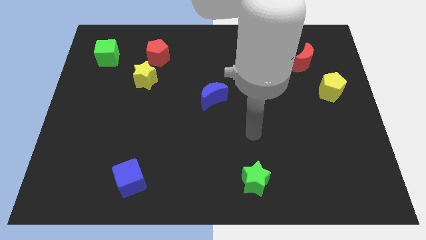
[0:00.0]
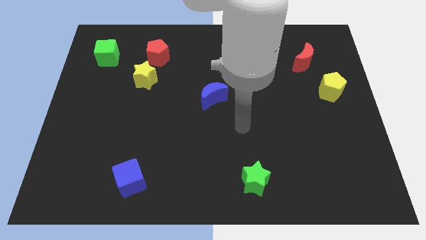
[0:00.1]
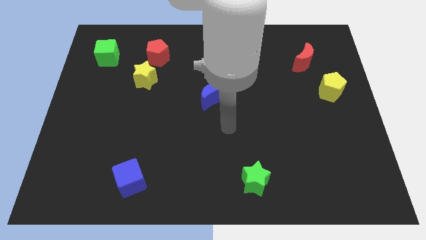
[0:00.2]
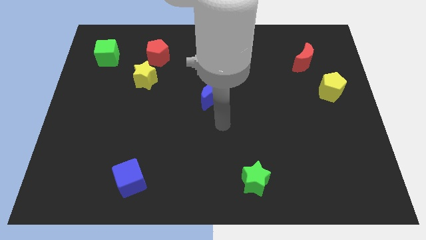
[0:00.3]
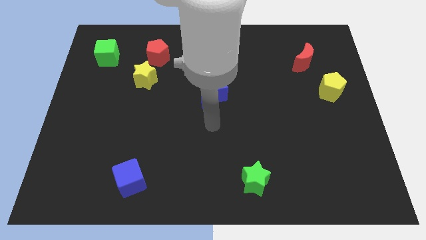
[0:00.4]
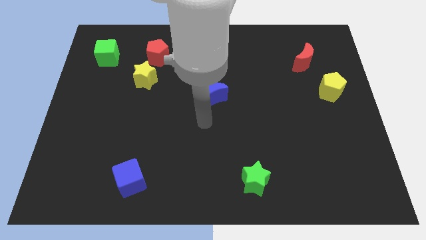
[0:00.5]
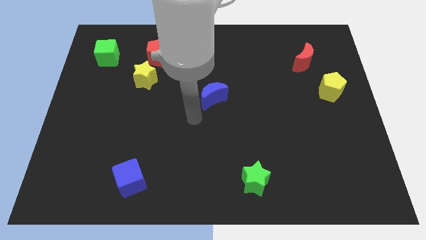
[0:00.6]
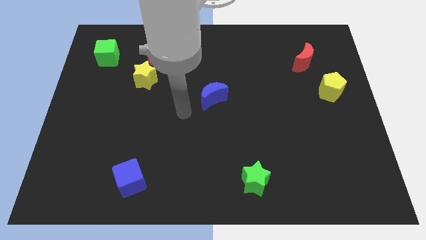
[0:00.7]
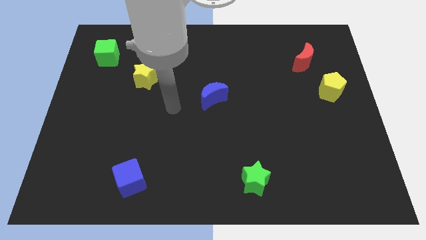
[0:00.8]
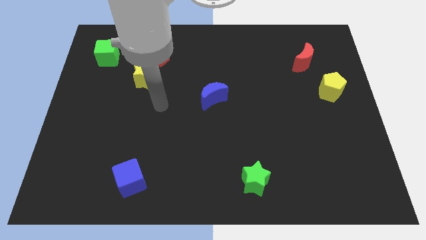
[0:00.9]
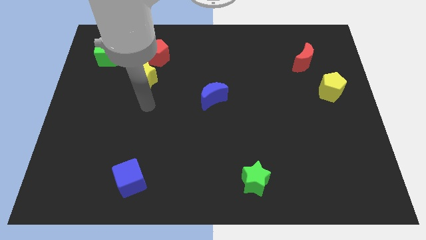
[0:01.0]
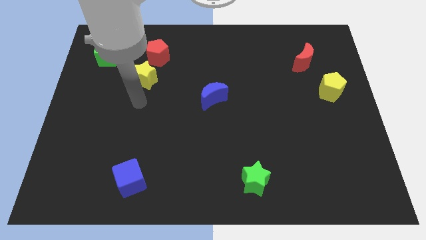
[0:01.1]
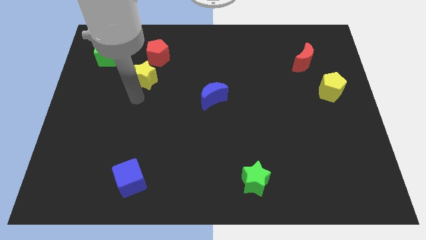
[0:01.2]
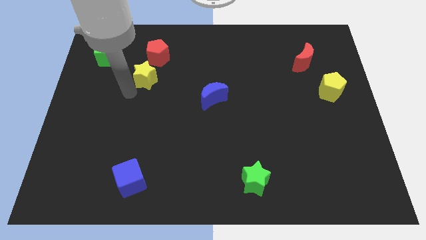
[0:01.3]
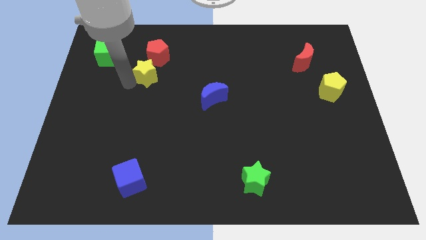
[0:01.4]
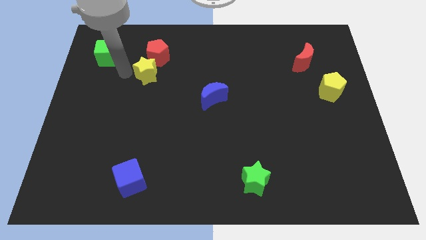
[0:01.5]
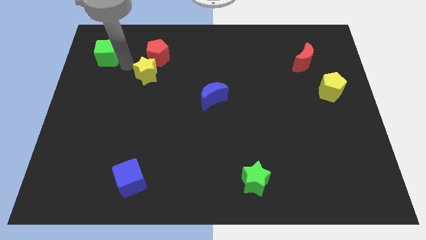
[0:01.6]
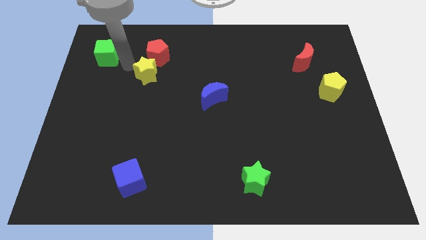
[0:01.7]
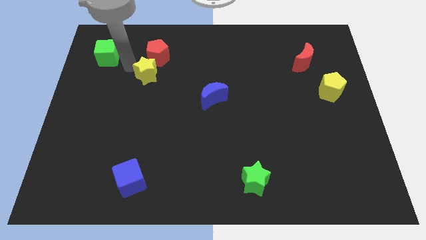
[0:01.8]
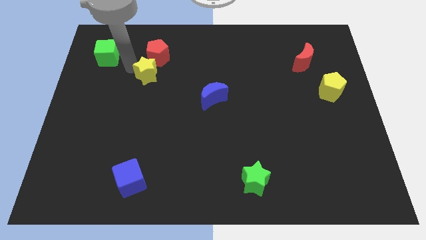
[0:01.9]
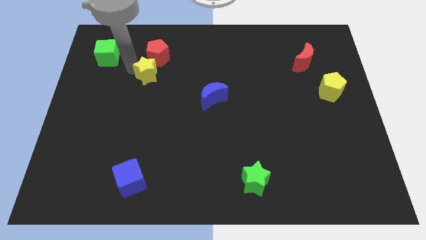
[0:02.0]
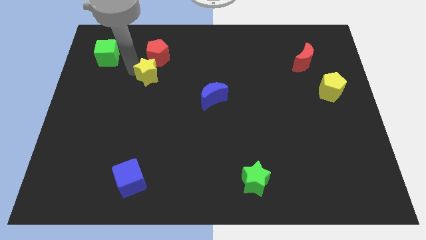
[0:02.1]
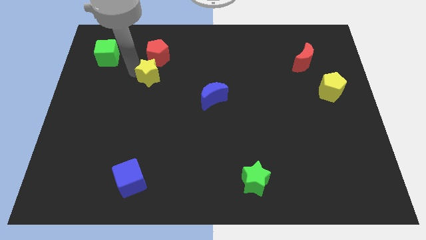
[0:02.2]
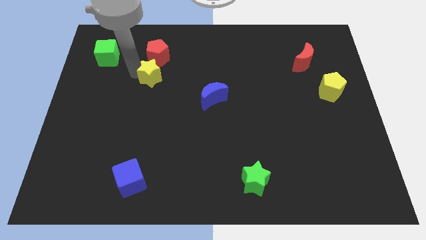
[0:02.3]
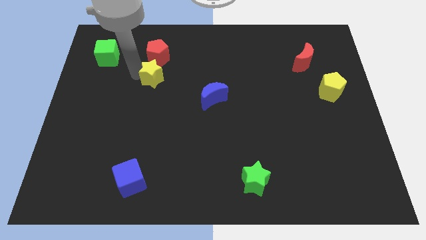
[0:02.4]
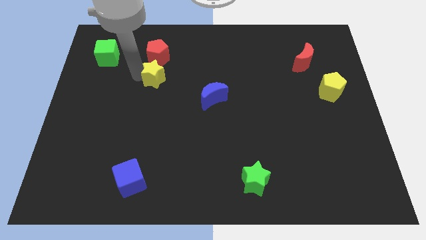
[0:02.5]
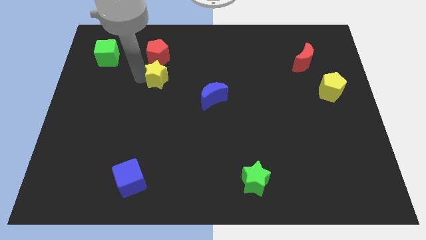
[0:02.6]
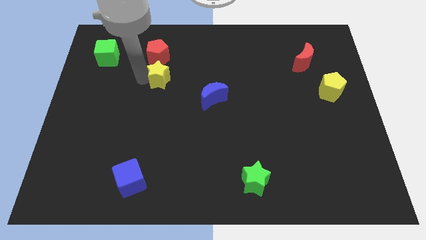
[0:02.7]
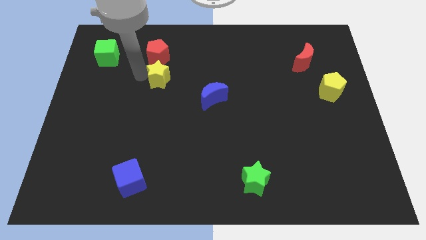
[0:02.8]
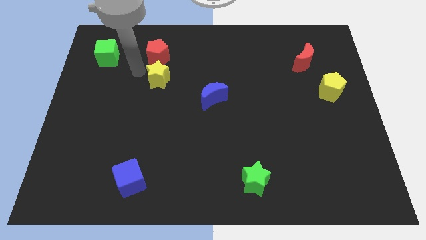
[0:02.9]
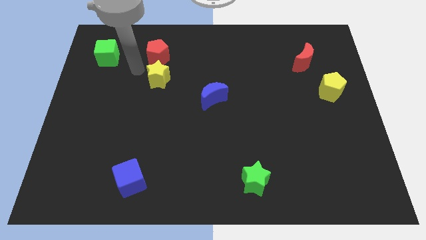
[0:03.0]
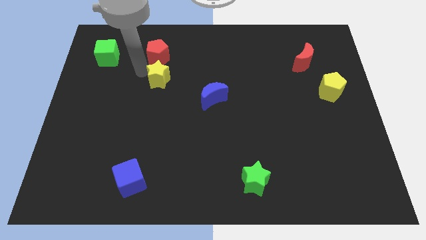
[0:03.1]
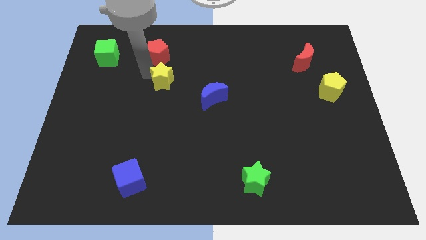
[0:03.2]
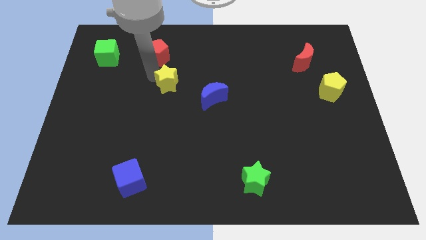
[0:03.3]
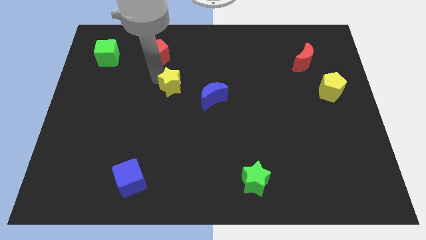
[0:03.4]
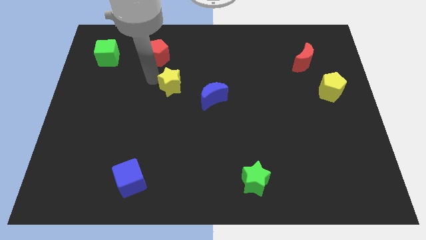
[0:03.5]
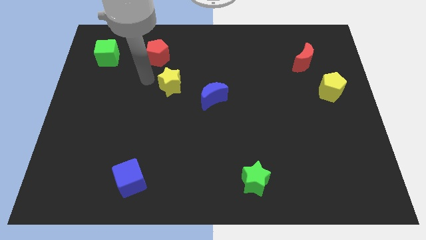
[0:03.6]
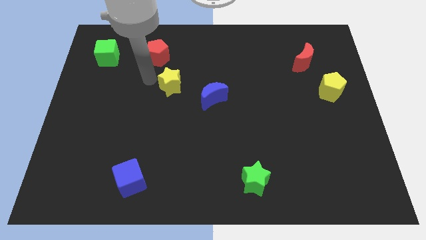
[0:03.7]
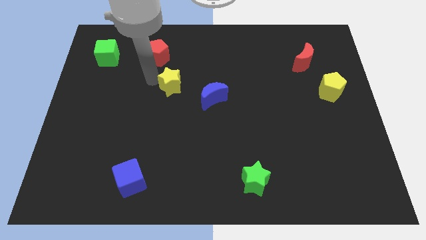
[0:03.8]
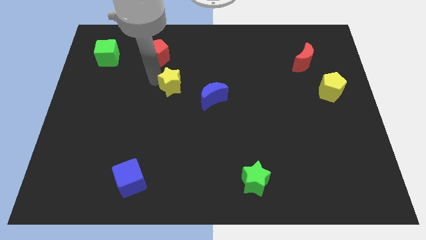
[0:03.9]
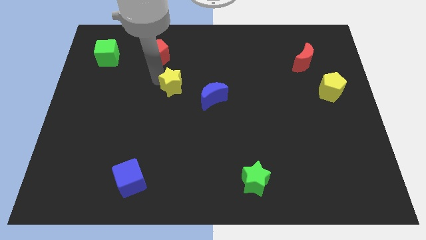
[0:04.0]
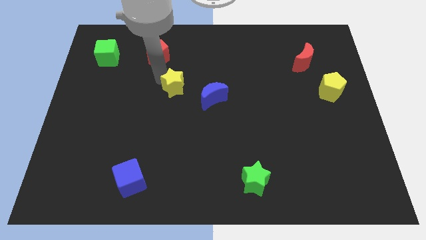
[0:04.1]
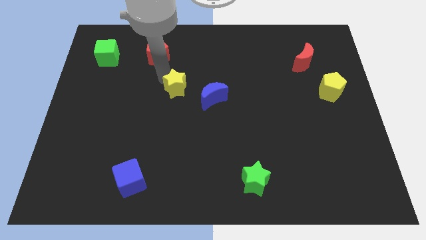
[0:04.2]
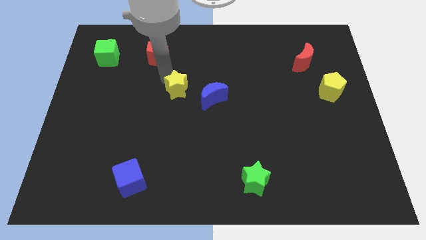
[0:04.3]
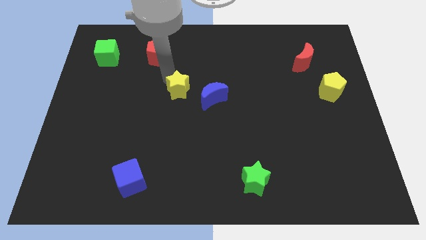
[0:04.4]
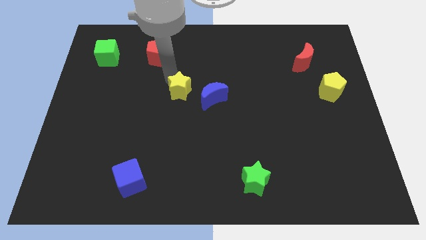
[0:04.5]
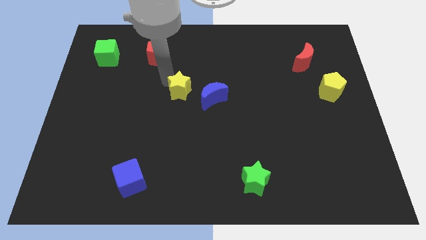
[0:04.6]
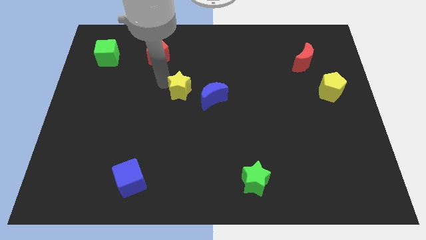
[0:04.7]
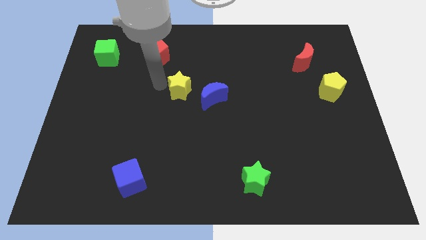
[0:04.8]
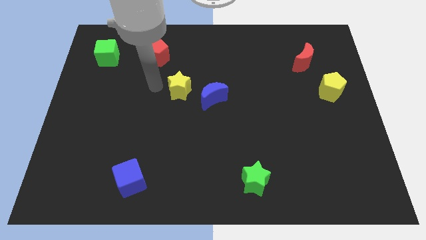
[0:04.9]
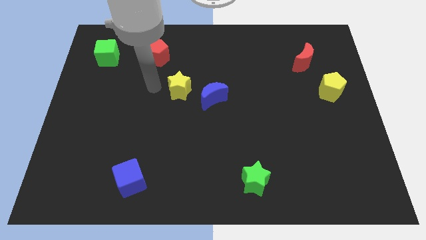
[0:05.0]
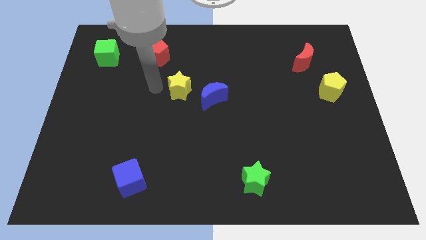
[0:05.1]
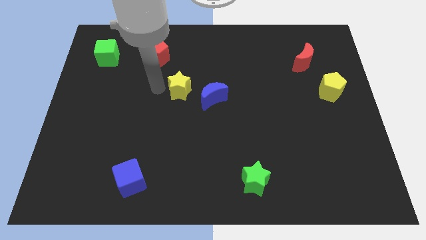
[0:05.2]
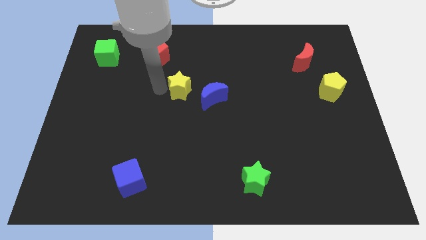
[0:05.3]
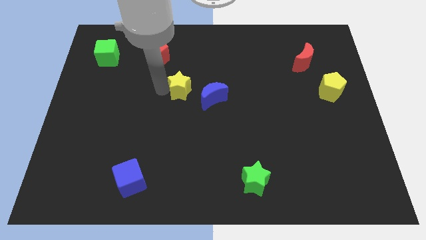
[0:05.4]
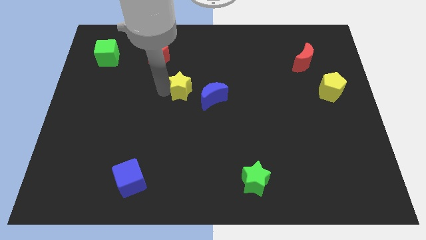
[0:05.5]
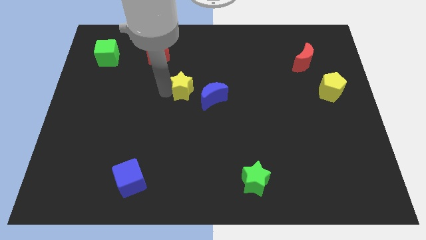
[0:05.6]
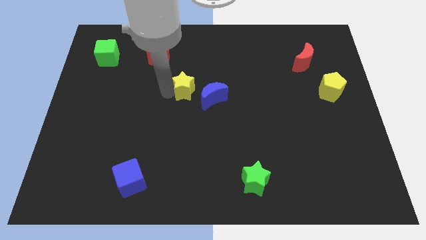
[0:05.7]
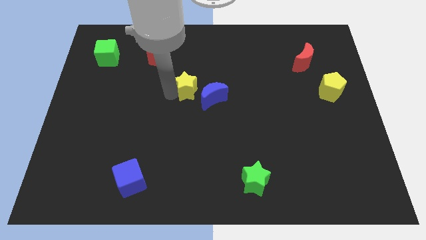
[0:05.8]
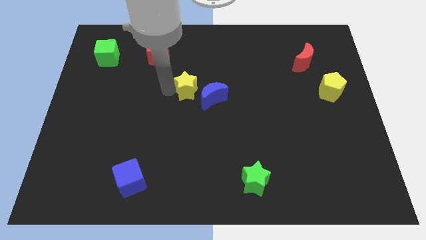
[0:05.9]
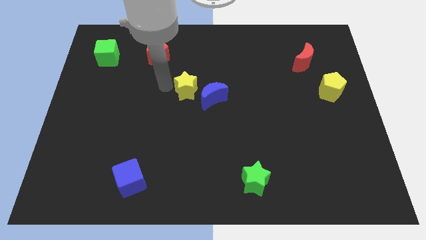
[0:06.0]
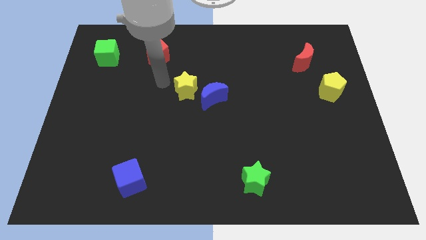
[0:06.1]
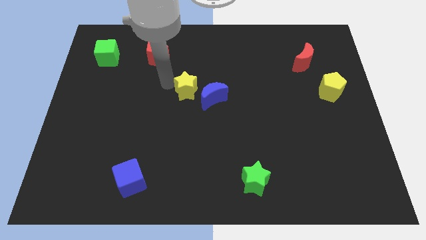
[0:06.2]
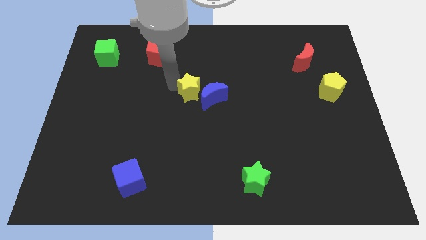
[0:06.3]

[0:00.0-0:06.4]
move the yellow star to the blue moon

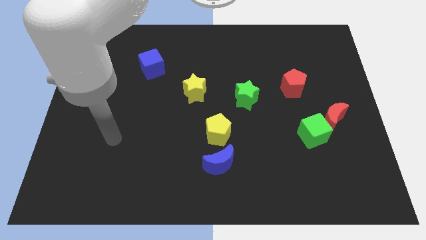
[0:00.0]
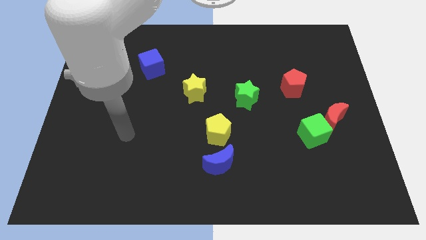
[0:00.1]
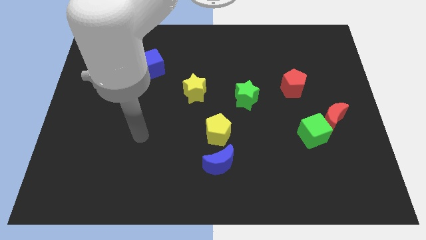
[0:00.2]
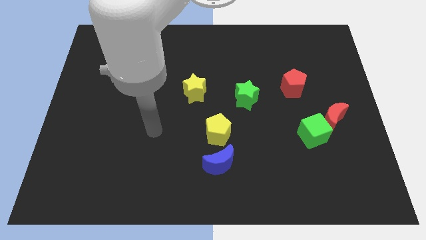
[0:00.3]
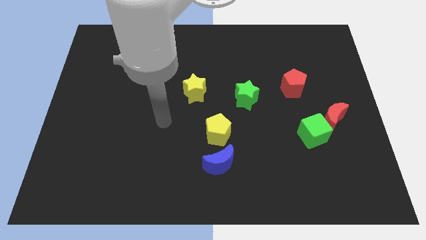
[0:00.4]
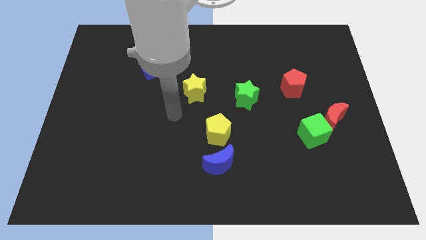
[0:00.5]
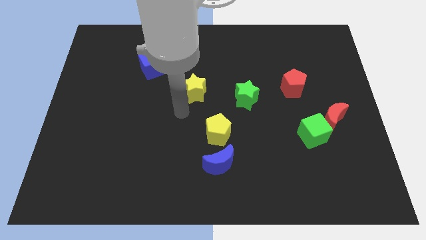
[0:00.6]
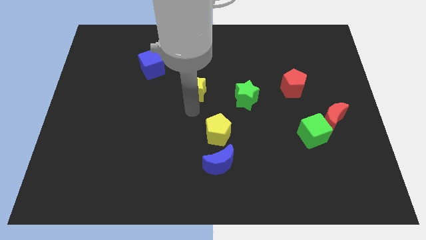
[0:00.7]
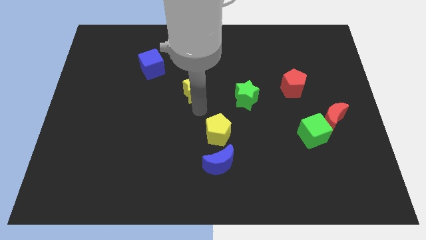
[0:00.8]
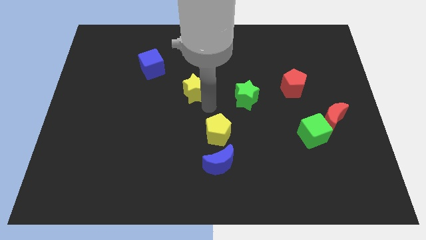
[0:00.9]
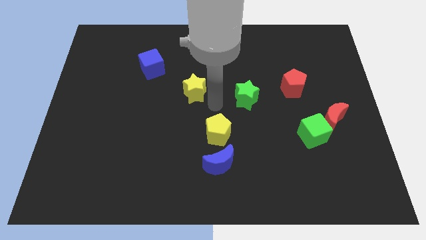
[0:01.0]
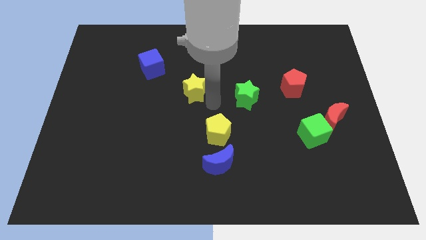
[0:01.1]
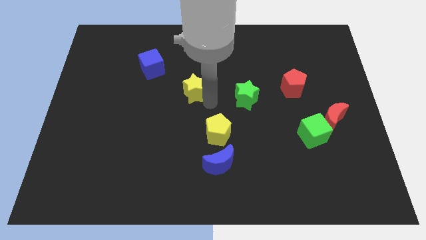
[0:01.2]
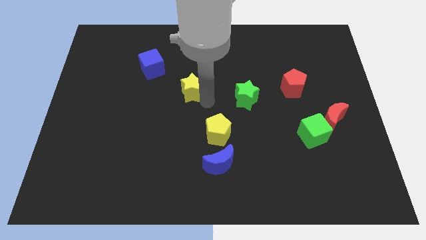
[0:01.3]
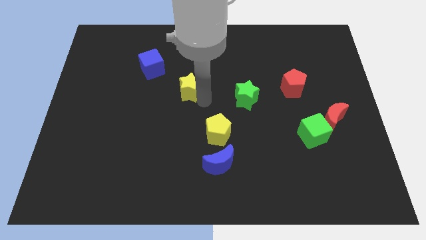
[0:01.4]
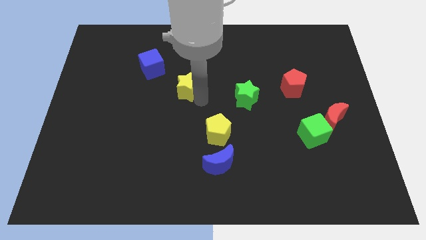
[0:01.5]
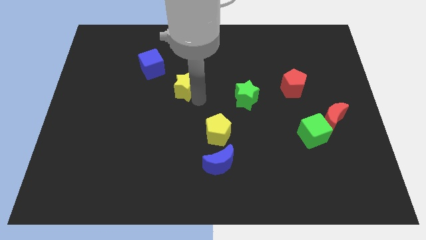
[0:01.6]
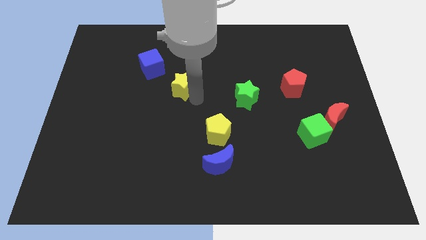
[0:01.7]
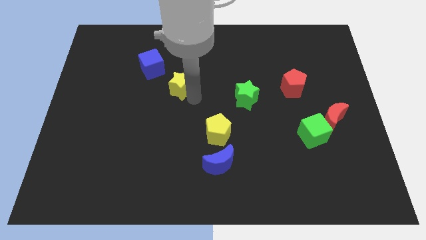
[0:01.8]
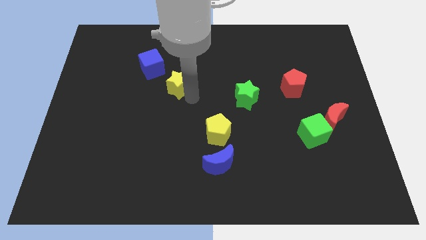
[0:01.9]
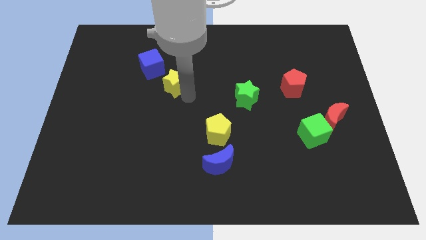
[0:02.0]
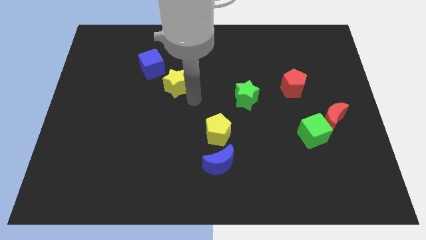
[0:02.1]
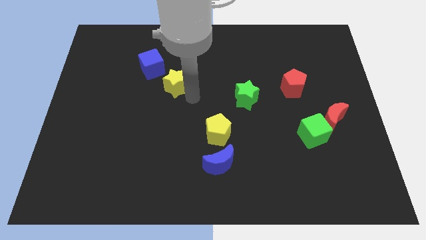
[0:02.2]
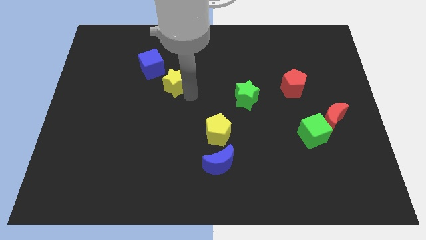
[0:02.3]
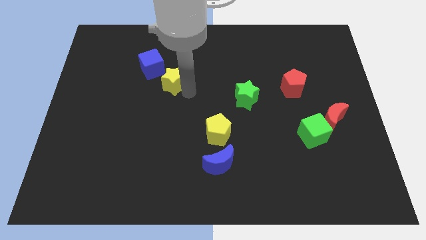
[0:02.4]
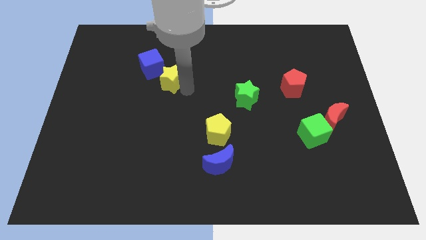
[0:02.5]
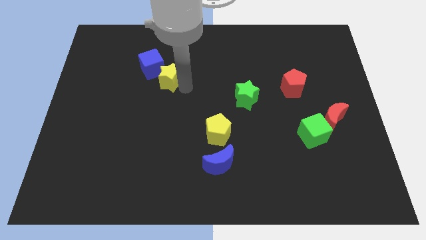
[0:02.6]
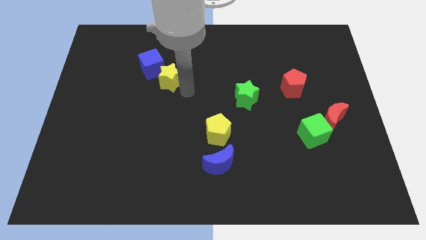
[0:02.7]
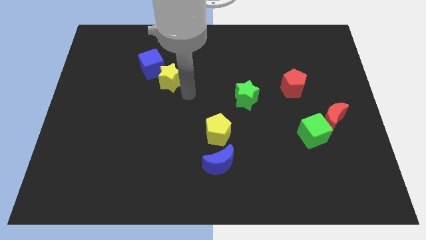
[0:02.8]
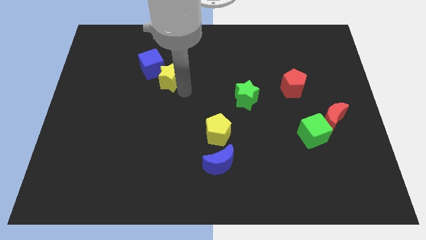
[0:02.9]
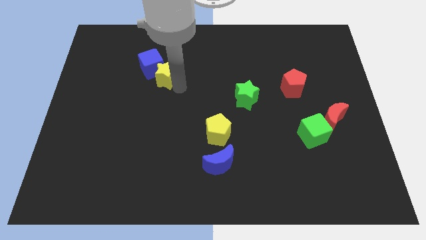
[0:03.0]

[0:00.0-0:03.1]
push the yellow star towards the blue cube
